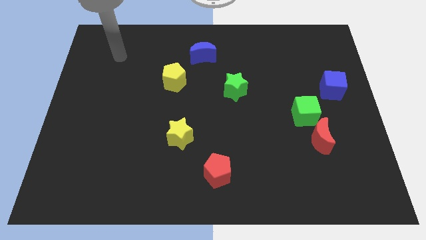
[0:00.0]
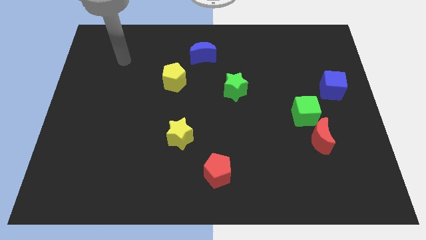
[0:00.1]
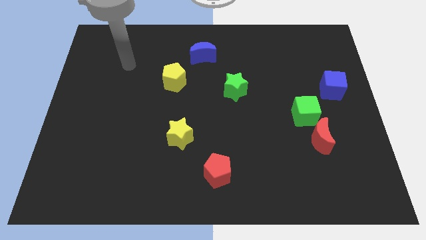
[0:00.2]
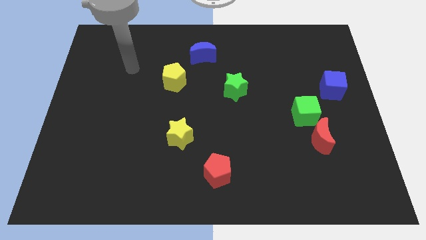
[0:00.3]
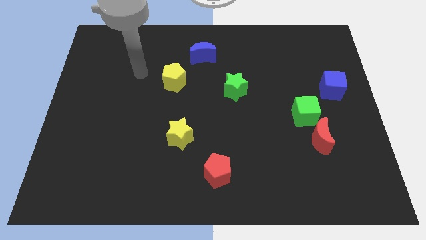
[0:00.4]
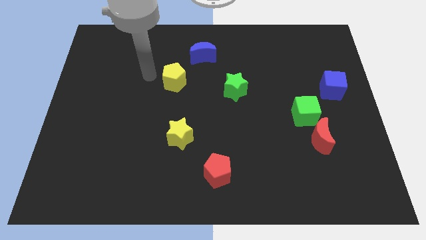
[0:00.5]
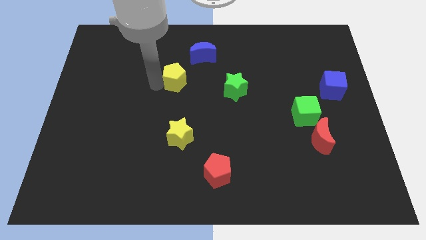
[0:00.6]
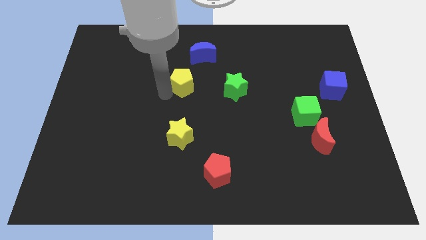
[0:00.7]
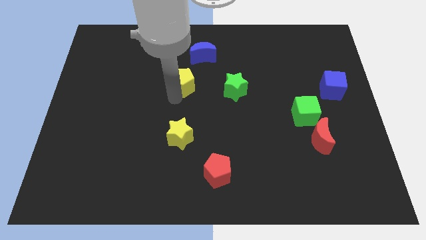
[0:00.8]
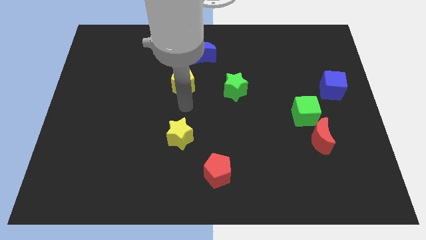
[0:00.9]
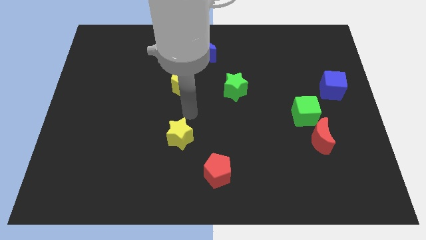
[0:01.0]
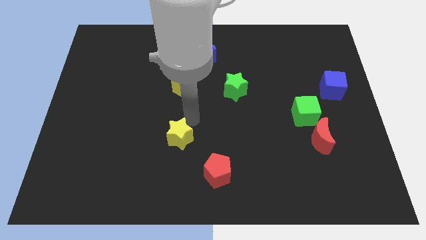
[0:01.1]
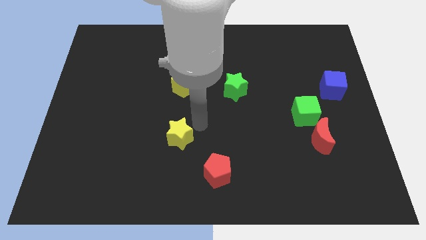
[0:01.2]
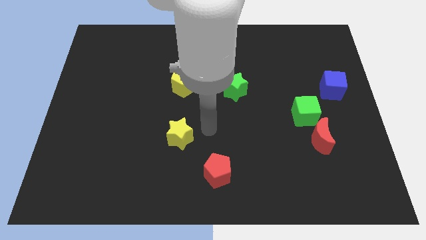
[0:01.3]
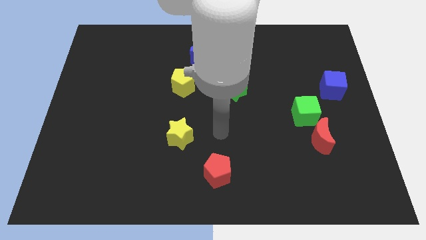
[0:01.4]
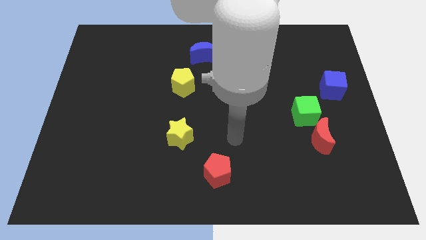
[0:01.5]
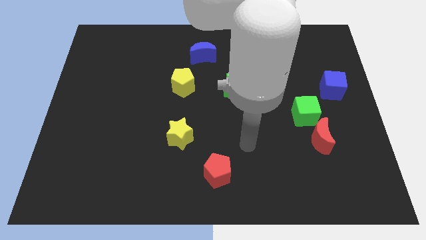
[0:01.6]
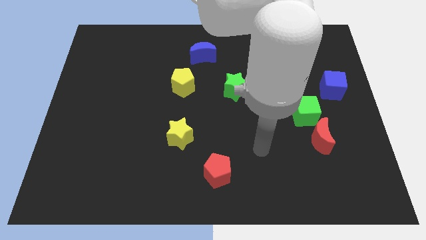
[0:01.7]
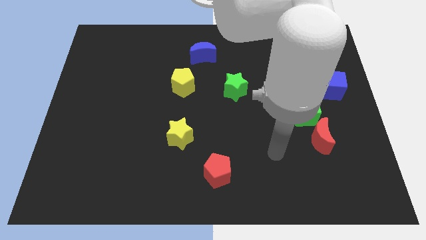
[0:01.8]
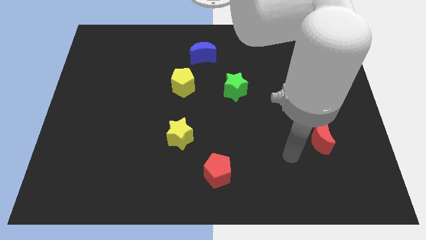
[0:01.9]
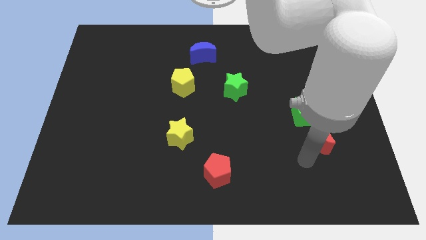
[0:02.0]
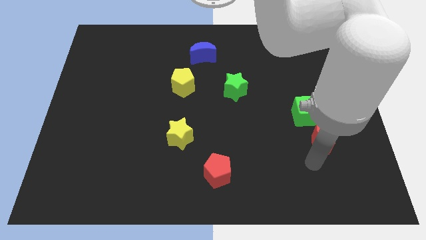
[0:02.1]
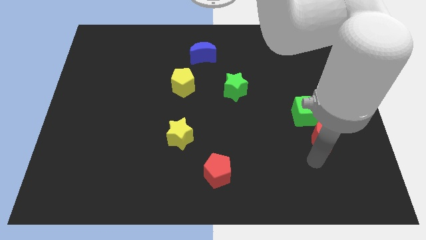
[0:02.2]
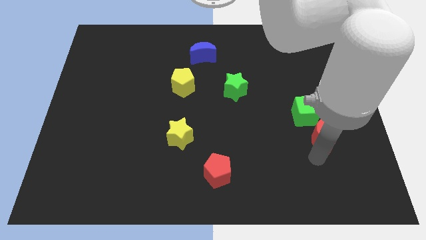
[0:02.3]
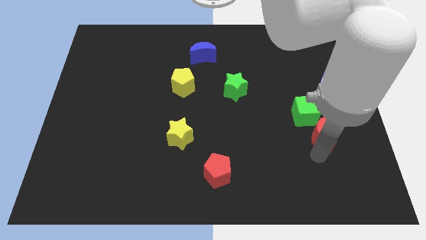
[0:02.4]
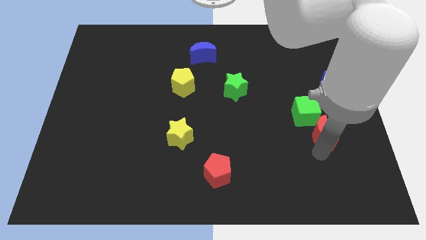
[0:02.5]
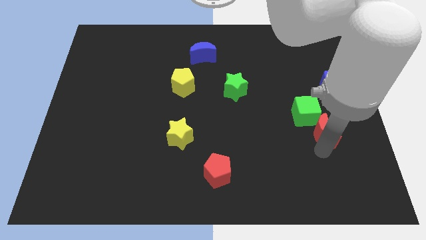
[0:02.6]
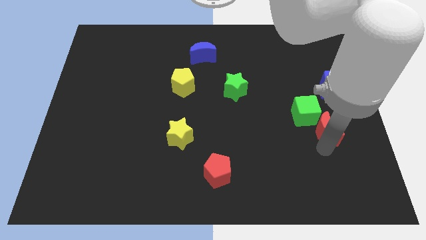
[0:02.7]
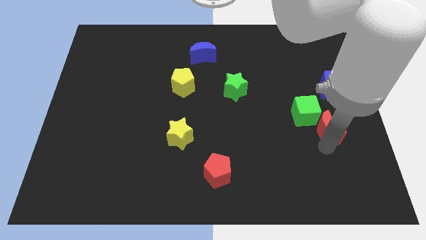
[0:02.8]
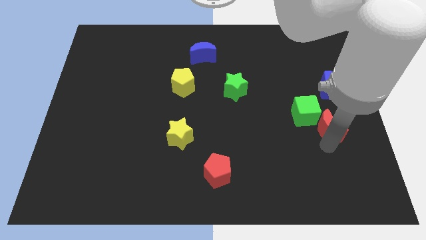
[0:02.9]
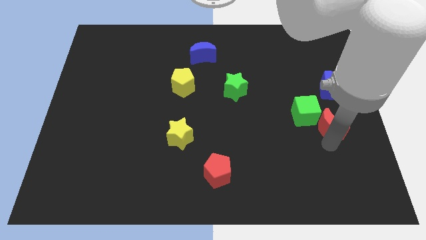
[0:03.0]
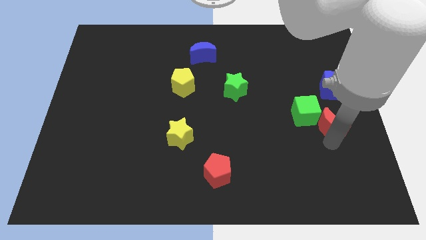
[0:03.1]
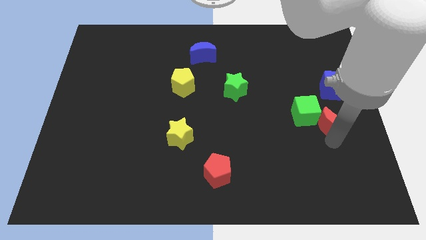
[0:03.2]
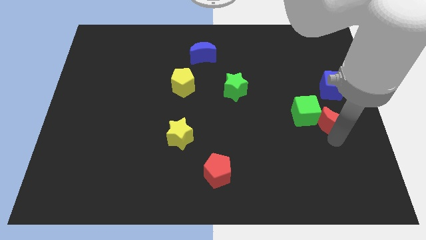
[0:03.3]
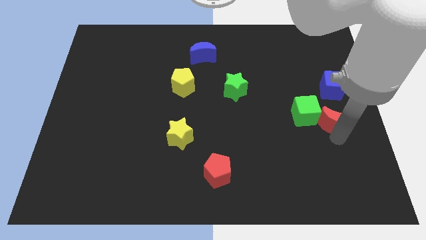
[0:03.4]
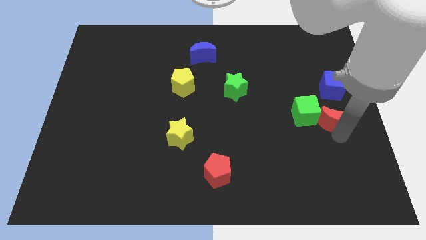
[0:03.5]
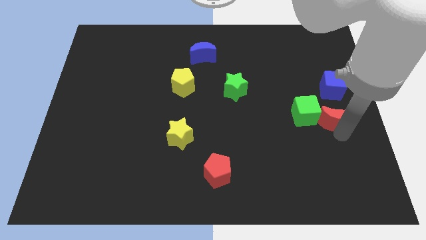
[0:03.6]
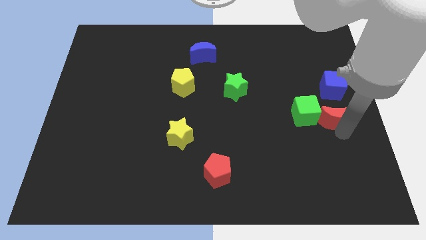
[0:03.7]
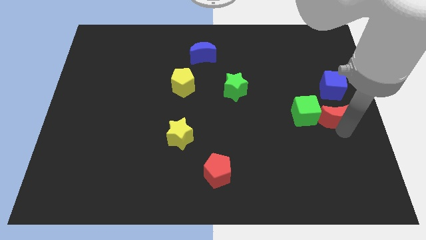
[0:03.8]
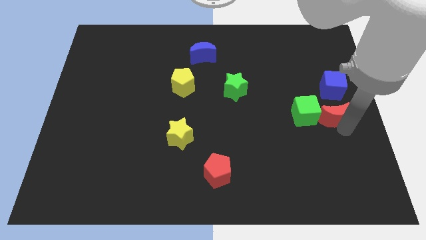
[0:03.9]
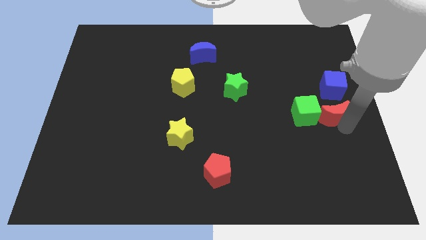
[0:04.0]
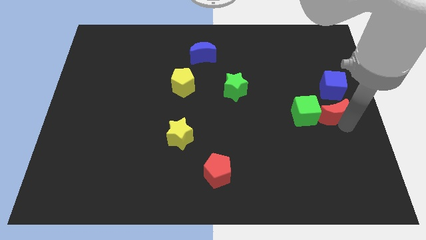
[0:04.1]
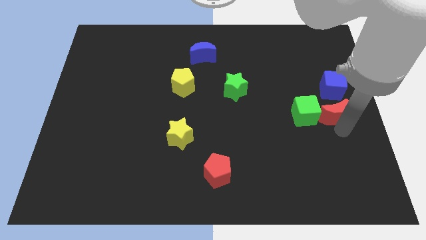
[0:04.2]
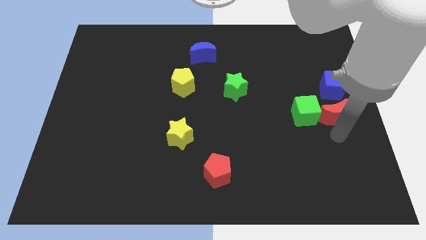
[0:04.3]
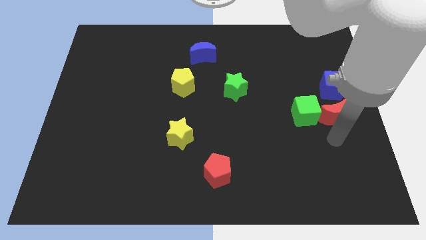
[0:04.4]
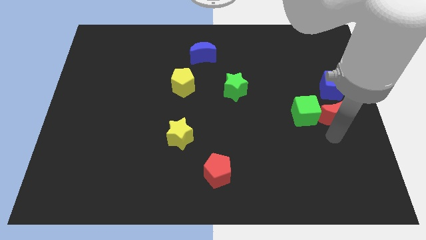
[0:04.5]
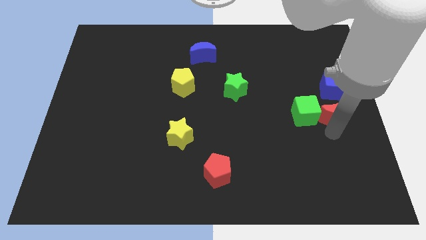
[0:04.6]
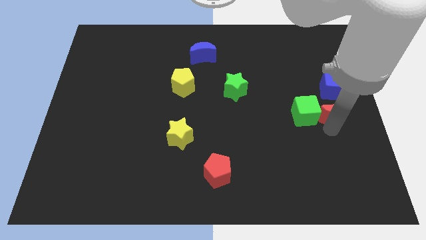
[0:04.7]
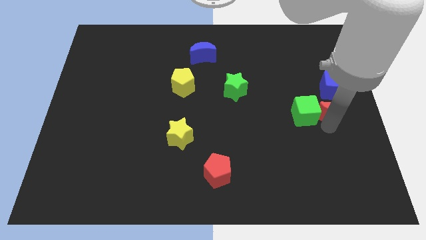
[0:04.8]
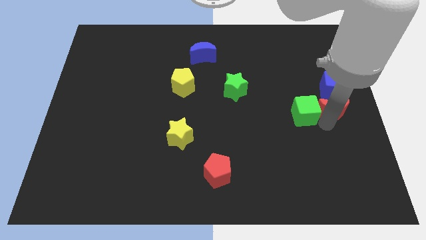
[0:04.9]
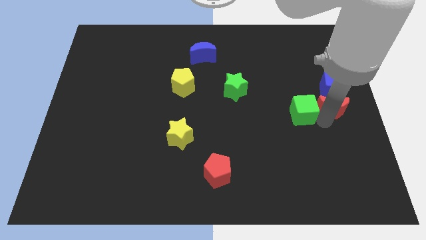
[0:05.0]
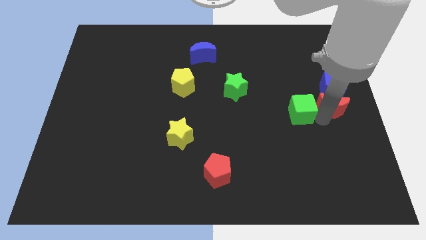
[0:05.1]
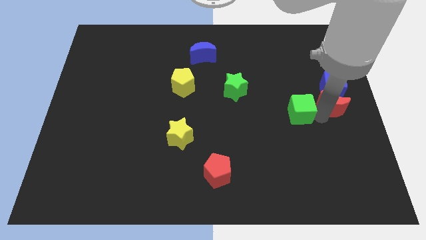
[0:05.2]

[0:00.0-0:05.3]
push the red moon towards the blue cube

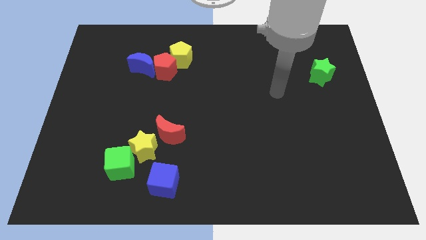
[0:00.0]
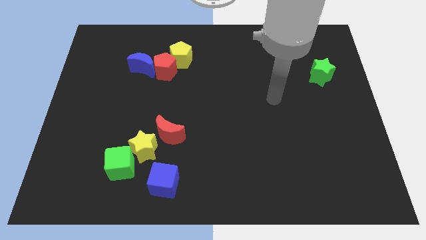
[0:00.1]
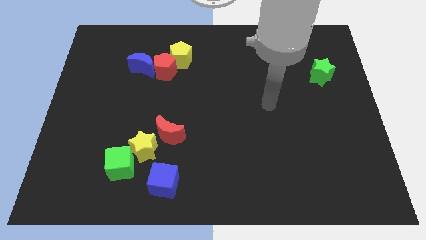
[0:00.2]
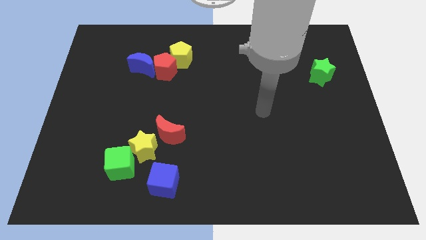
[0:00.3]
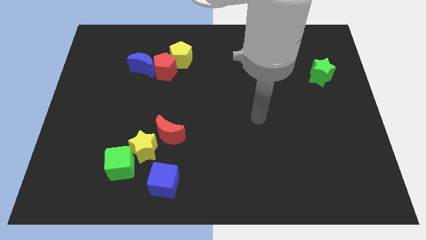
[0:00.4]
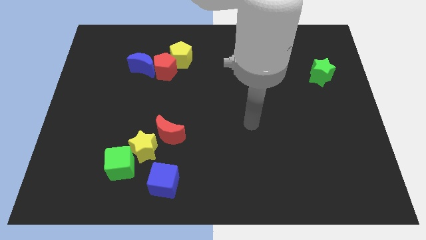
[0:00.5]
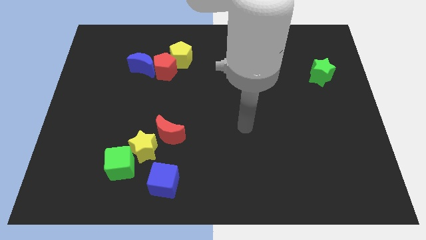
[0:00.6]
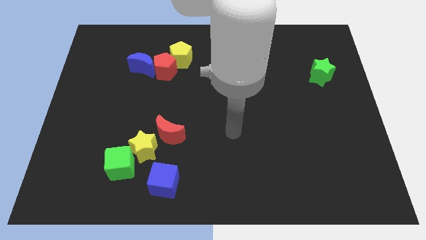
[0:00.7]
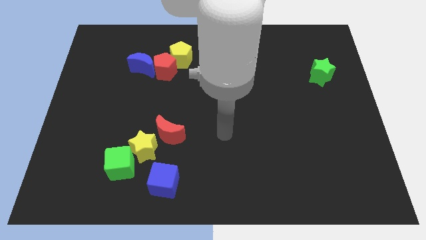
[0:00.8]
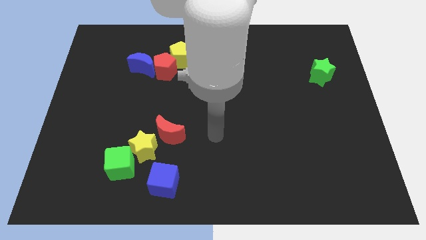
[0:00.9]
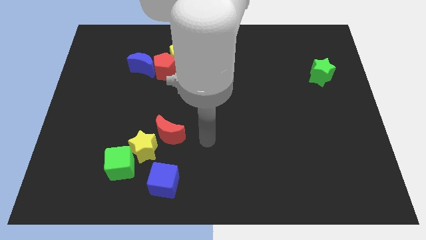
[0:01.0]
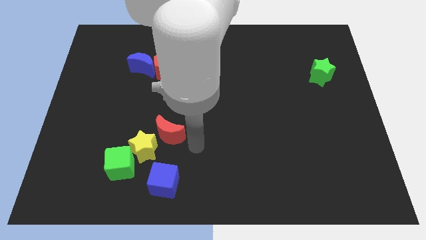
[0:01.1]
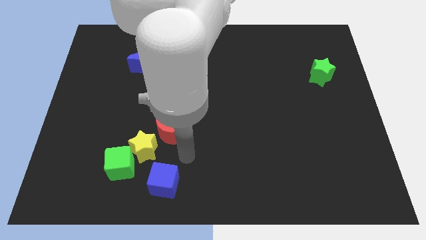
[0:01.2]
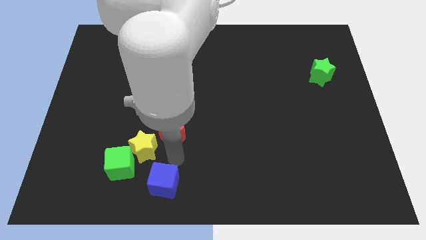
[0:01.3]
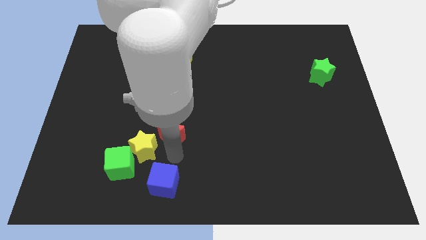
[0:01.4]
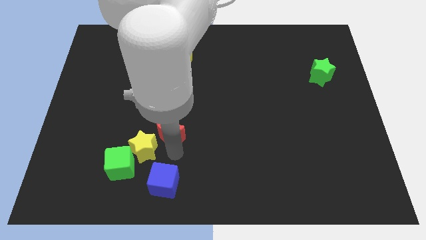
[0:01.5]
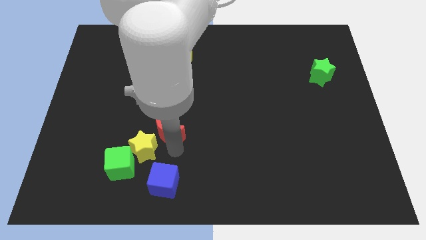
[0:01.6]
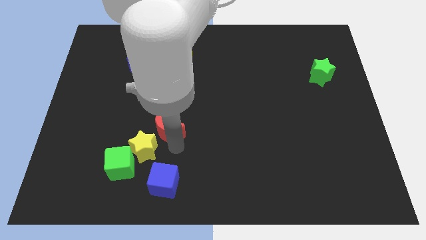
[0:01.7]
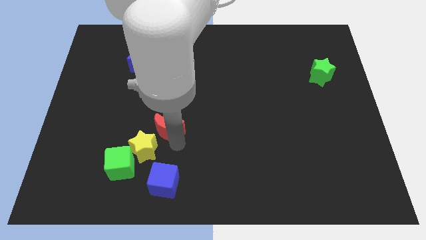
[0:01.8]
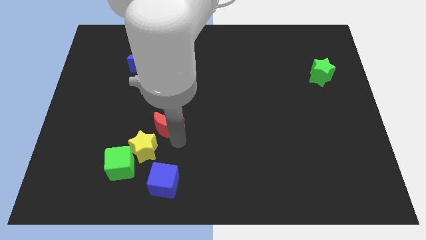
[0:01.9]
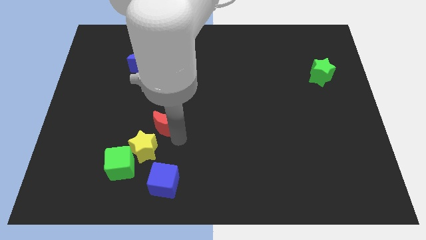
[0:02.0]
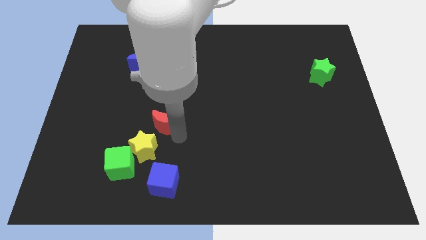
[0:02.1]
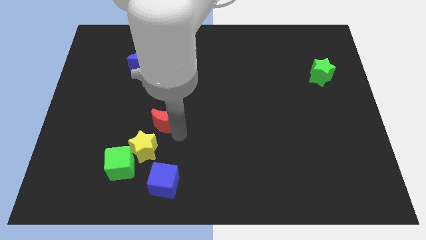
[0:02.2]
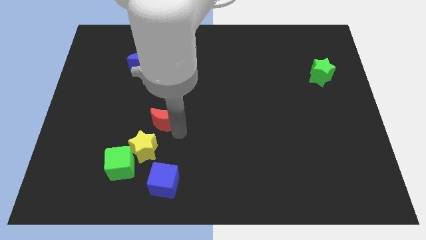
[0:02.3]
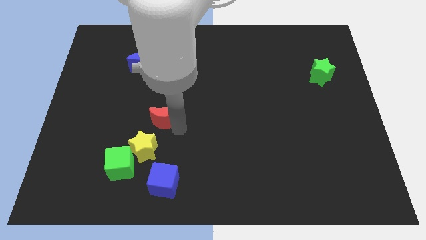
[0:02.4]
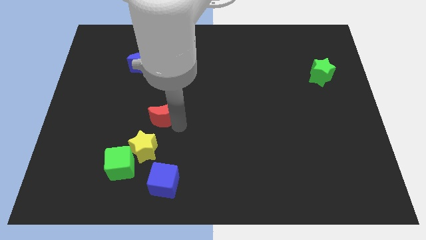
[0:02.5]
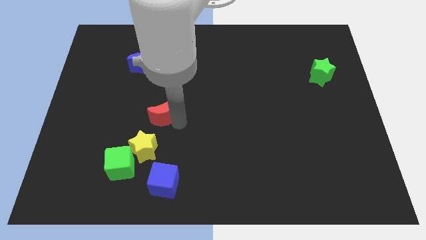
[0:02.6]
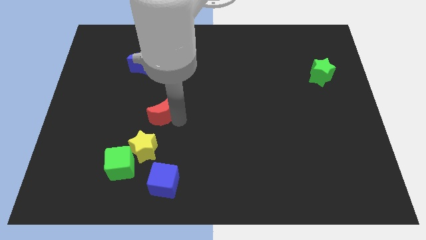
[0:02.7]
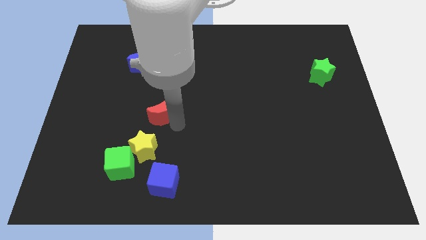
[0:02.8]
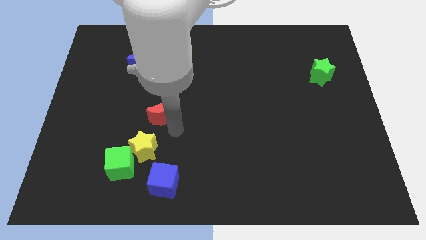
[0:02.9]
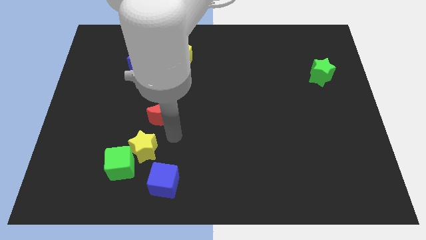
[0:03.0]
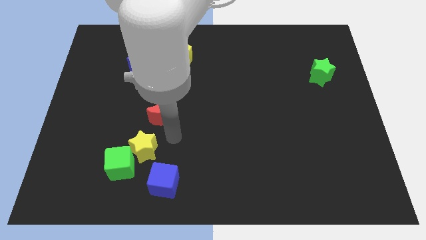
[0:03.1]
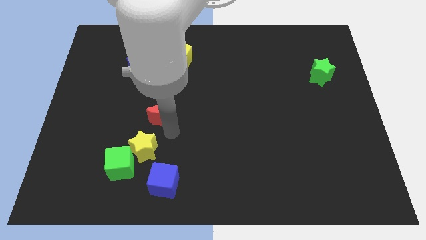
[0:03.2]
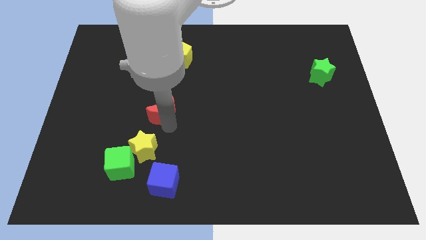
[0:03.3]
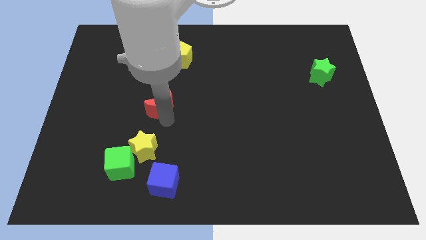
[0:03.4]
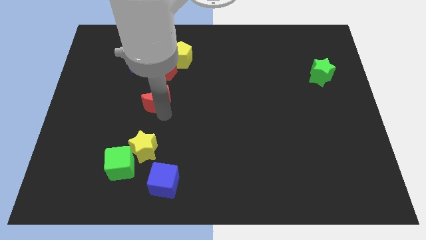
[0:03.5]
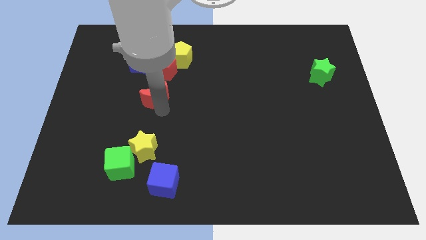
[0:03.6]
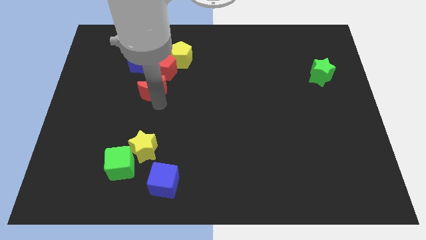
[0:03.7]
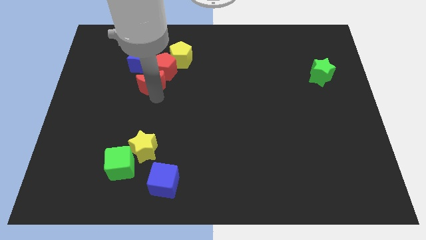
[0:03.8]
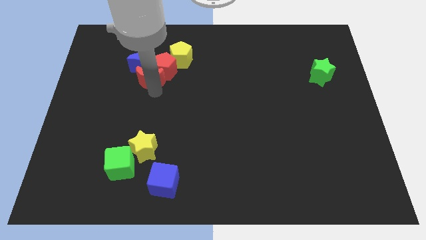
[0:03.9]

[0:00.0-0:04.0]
put the red moon next to the blue moon
